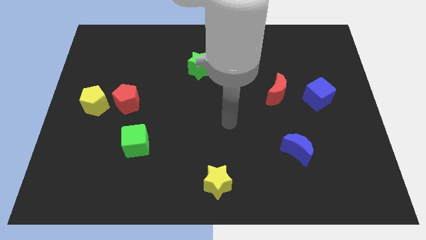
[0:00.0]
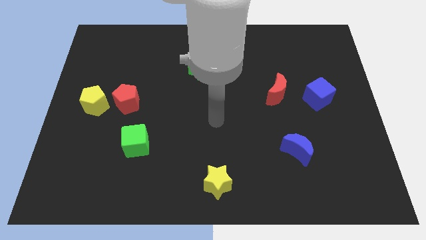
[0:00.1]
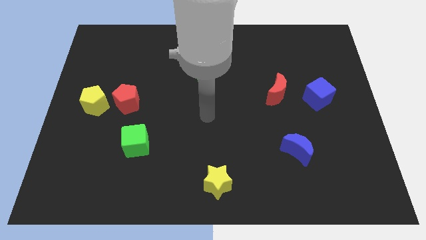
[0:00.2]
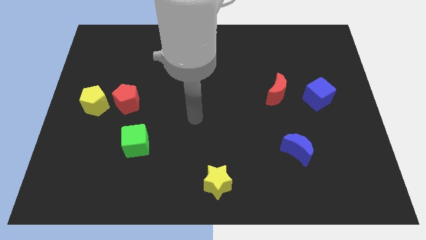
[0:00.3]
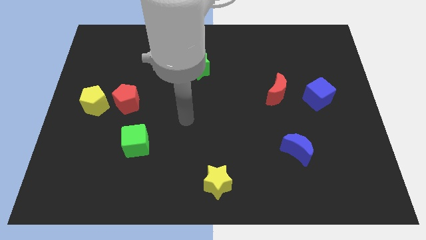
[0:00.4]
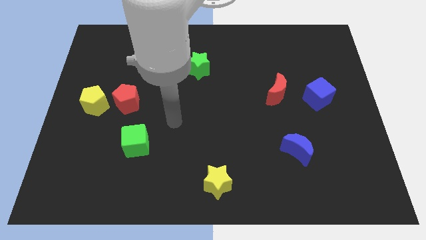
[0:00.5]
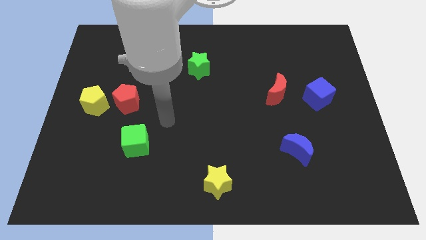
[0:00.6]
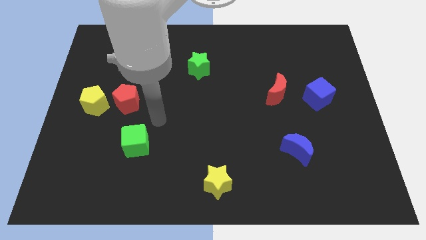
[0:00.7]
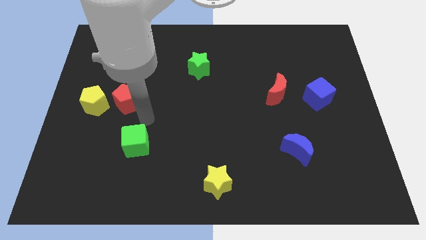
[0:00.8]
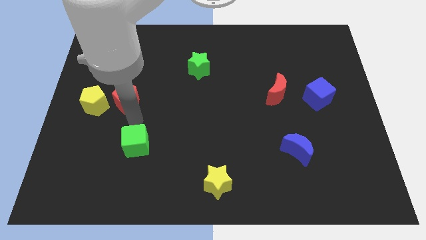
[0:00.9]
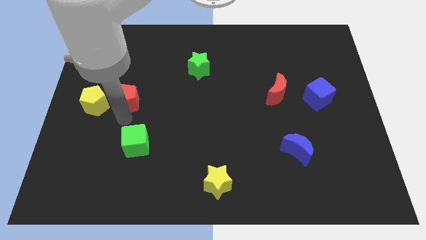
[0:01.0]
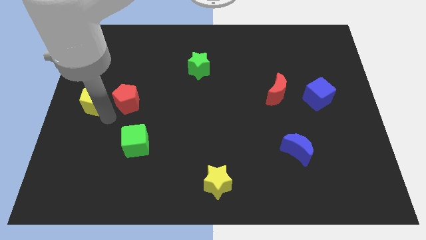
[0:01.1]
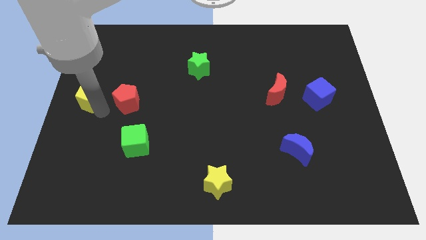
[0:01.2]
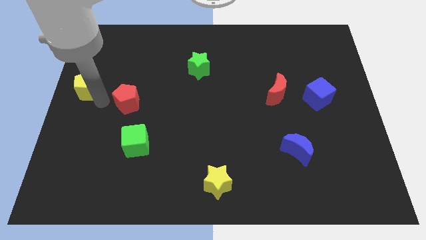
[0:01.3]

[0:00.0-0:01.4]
pull the red pentagon apart from the yellow pentagon

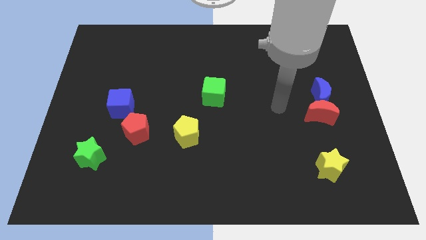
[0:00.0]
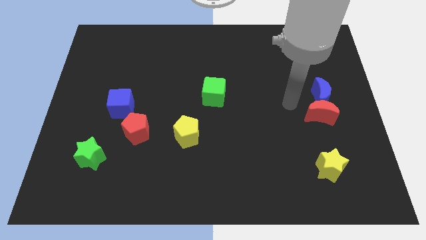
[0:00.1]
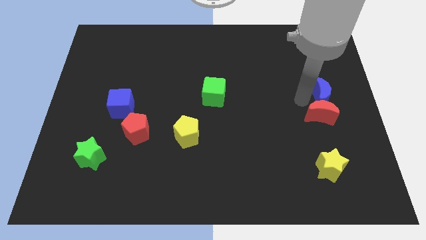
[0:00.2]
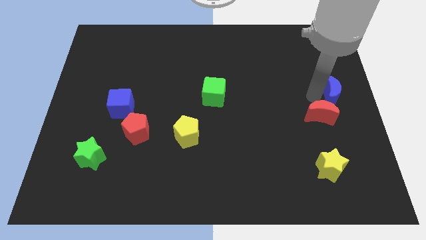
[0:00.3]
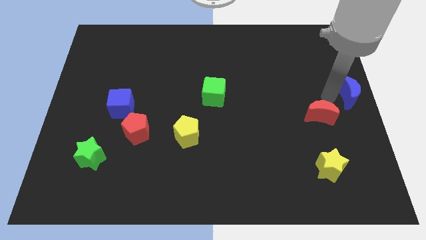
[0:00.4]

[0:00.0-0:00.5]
move the red moon away from the blue moon

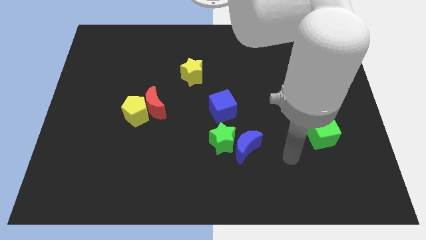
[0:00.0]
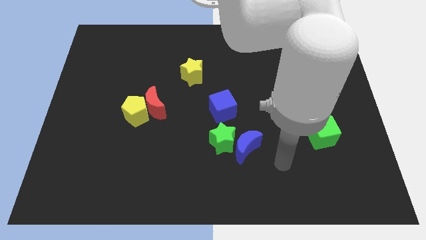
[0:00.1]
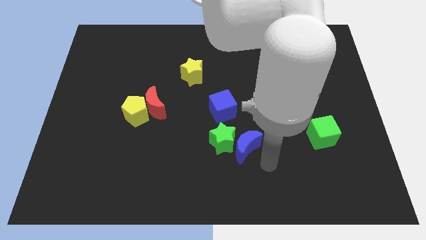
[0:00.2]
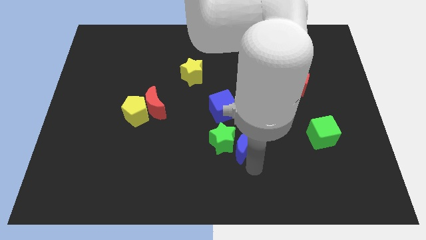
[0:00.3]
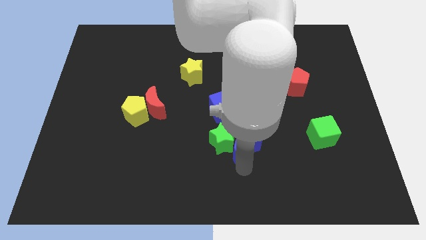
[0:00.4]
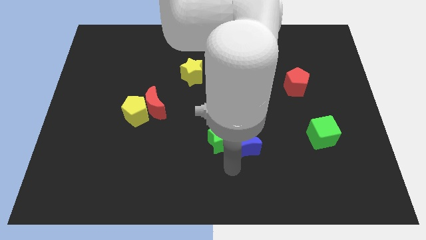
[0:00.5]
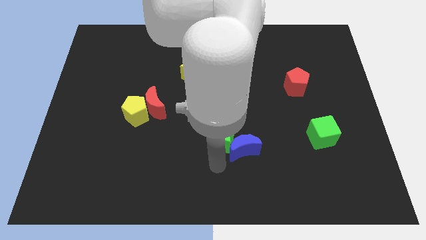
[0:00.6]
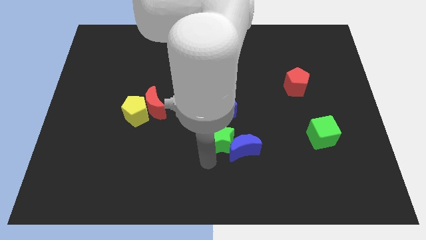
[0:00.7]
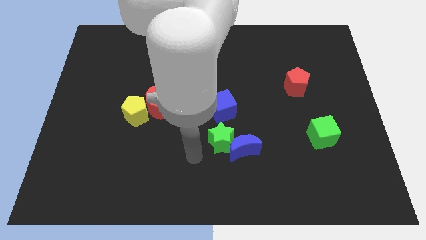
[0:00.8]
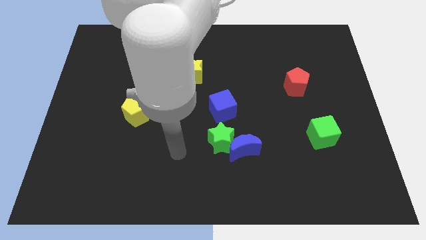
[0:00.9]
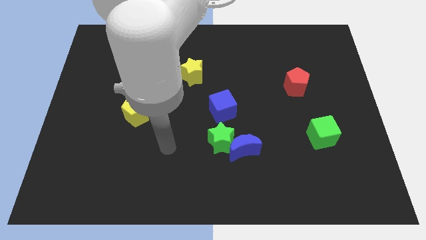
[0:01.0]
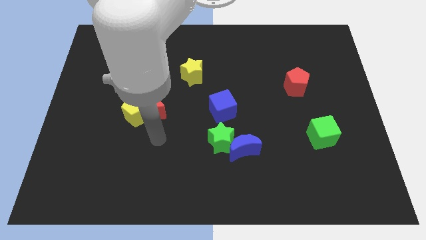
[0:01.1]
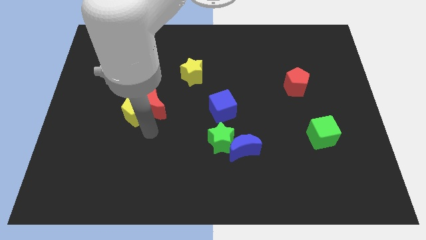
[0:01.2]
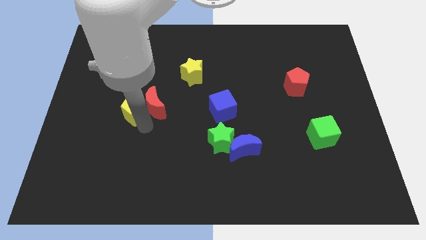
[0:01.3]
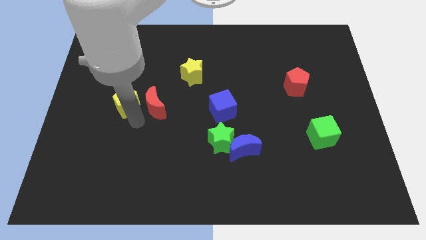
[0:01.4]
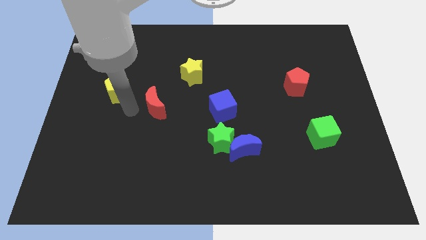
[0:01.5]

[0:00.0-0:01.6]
separate the red moon from the yellow pentagon

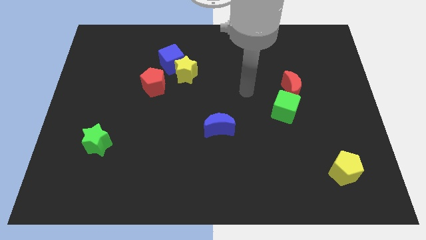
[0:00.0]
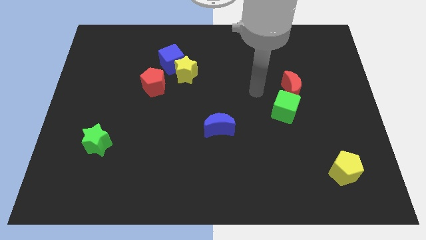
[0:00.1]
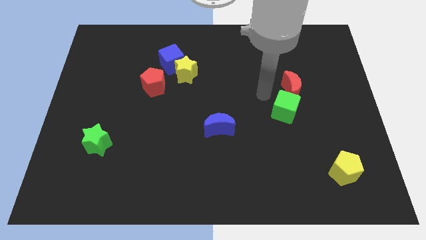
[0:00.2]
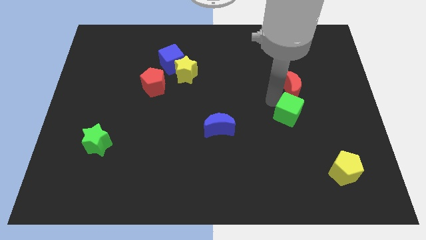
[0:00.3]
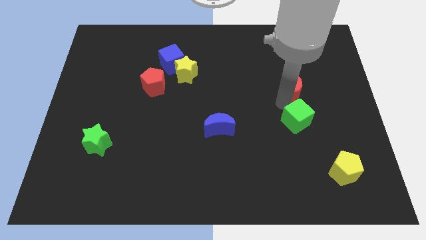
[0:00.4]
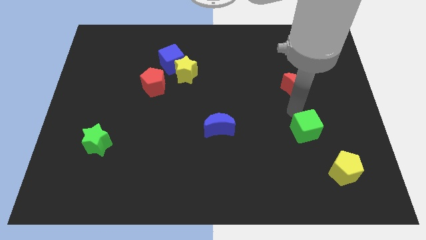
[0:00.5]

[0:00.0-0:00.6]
move the red moon away from the green cube

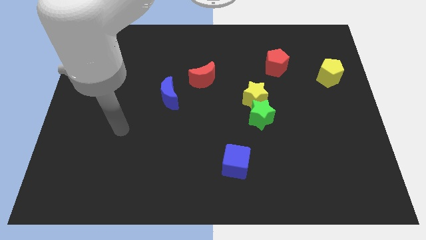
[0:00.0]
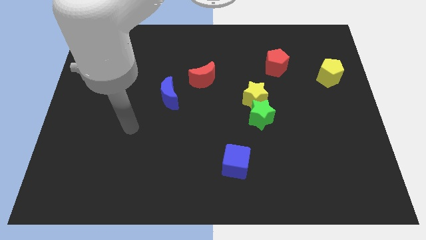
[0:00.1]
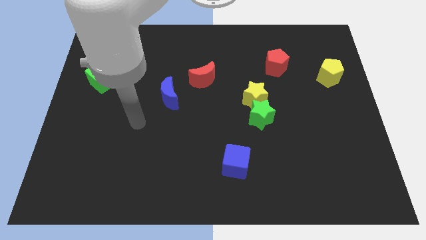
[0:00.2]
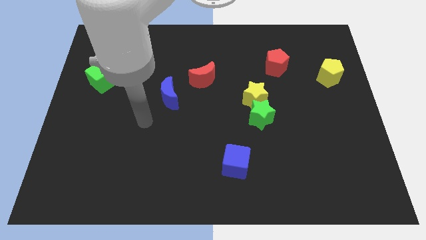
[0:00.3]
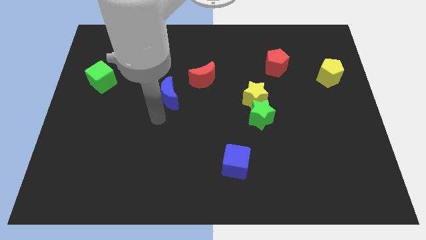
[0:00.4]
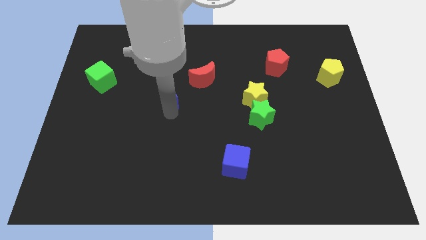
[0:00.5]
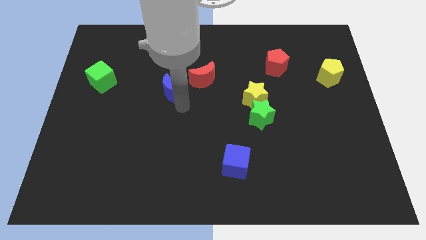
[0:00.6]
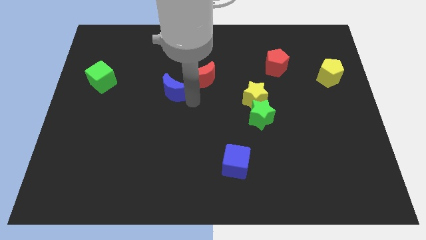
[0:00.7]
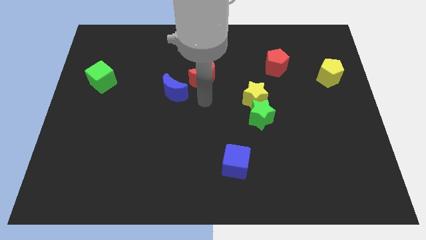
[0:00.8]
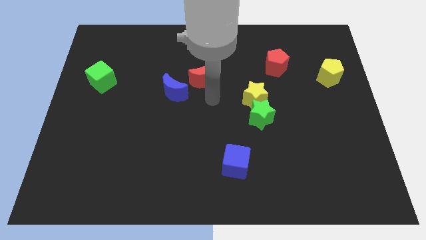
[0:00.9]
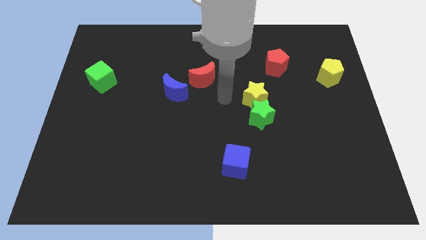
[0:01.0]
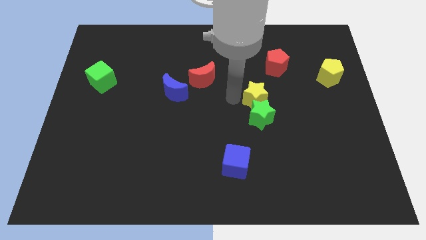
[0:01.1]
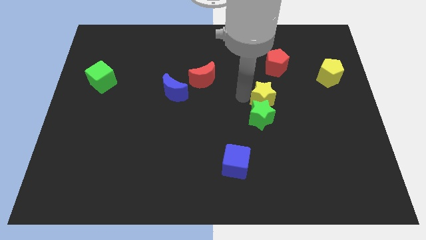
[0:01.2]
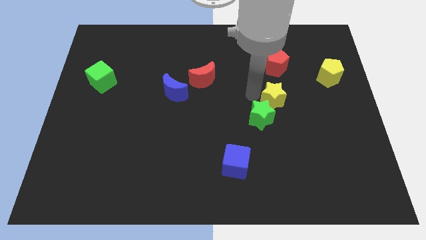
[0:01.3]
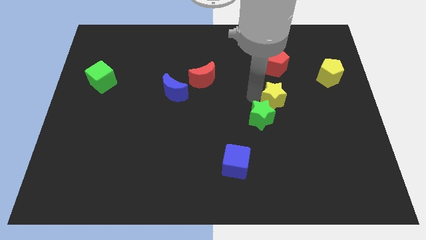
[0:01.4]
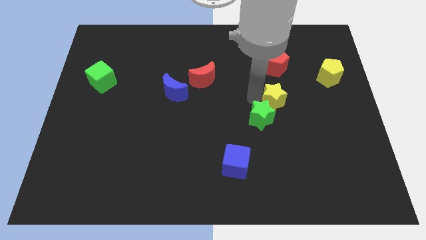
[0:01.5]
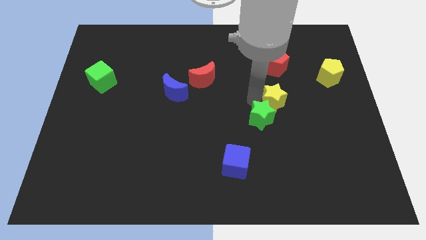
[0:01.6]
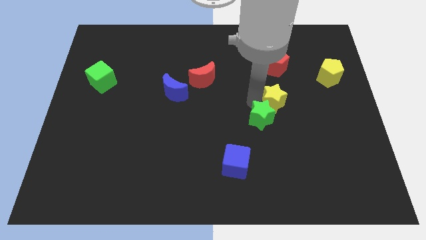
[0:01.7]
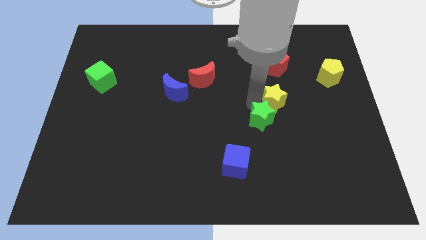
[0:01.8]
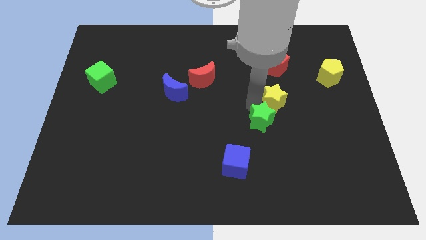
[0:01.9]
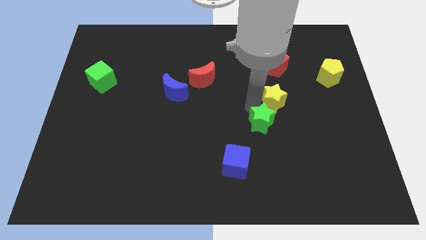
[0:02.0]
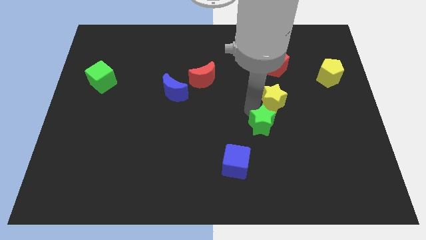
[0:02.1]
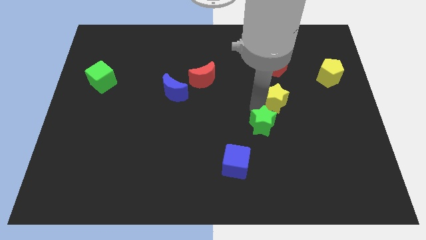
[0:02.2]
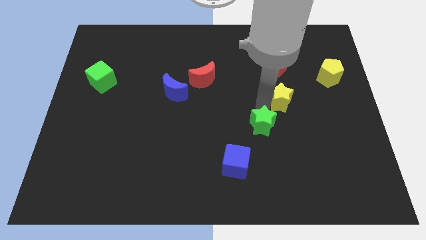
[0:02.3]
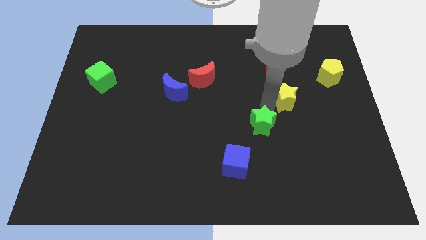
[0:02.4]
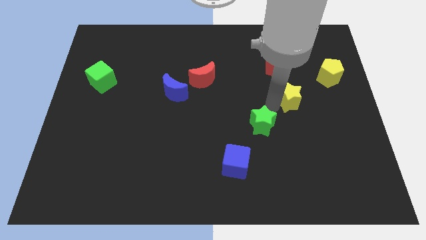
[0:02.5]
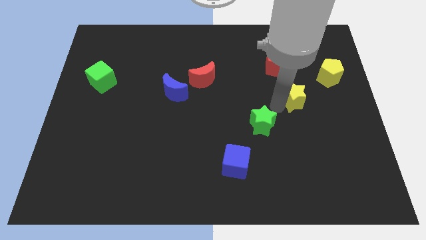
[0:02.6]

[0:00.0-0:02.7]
pull the green star apart from the yellow star

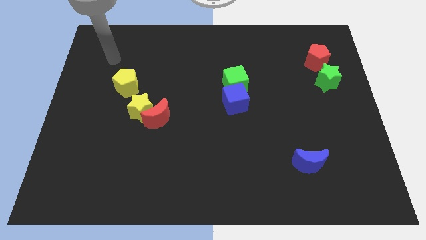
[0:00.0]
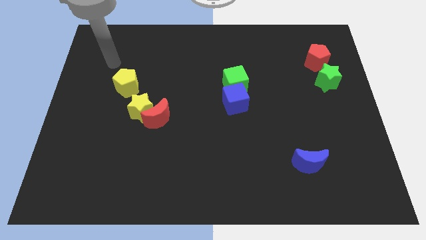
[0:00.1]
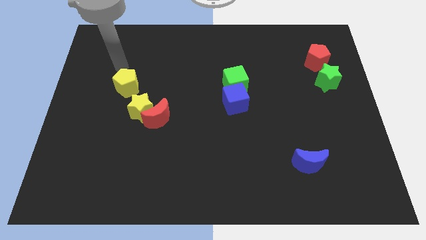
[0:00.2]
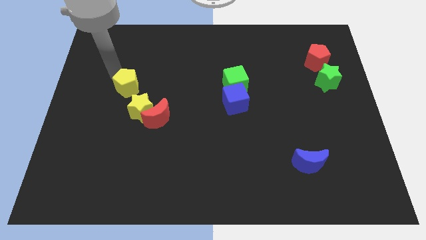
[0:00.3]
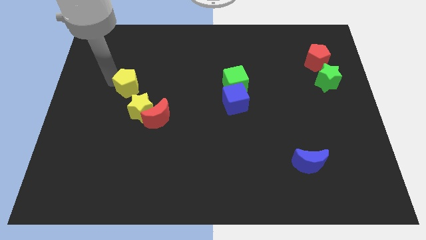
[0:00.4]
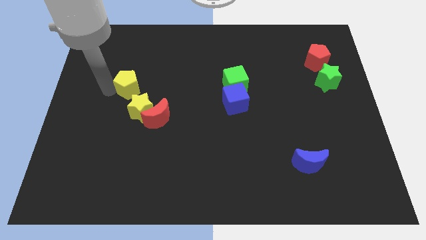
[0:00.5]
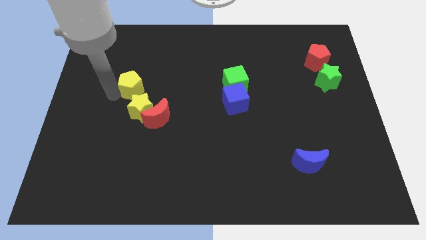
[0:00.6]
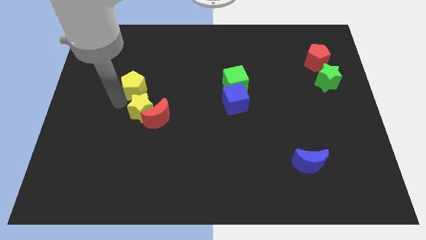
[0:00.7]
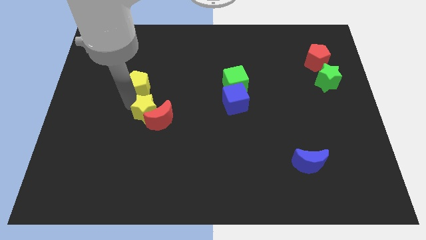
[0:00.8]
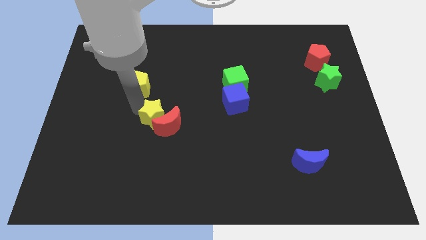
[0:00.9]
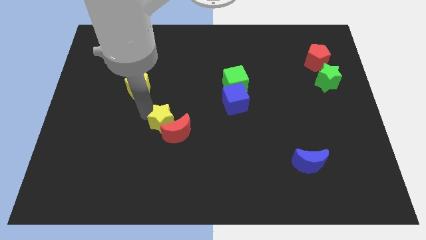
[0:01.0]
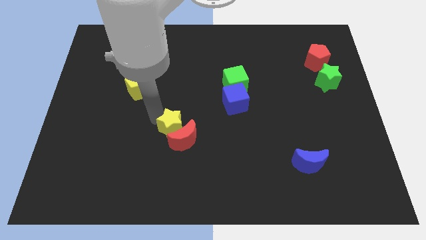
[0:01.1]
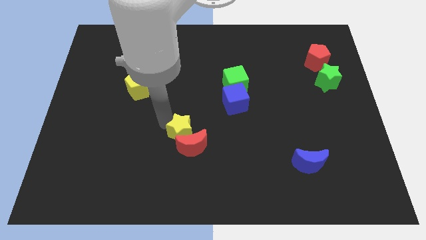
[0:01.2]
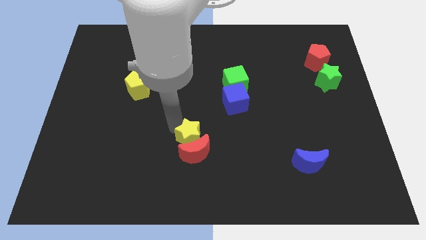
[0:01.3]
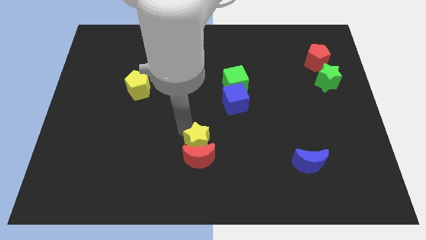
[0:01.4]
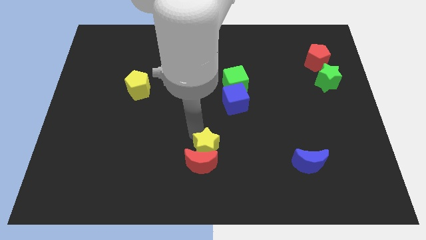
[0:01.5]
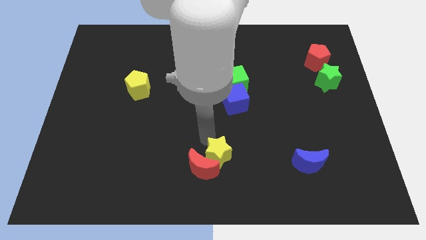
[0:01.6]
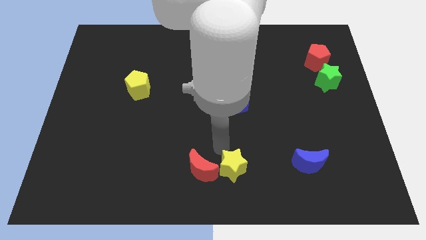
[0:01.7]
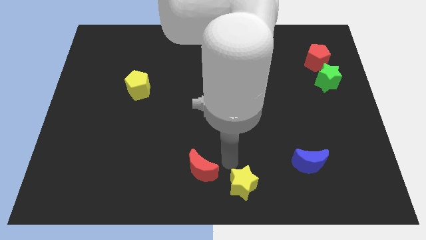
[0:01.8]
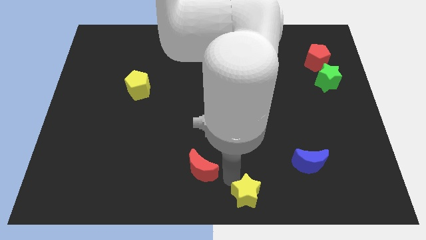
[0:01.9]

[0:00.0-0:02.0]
pull the red moon apart from the yellow star

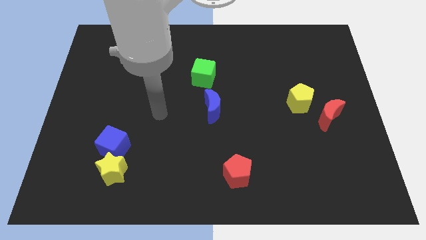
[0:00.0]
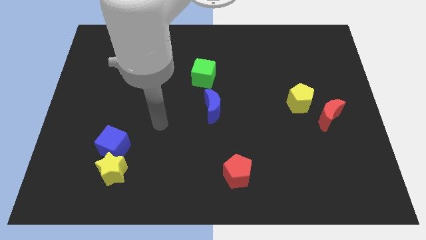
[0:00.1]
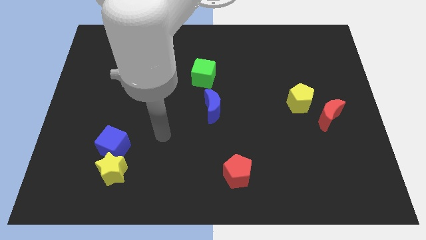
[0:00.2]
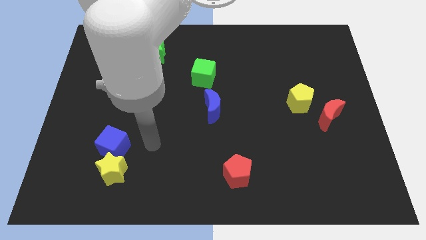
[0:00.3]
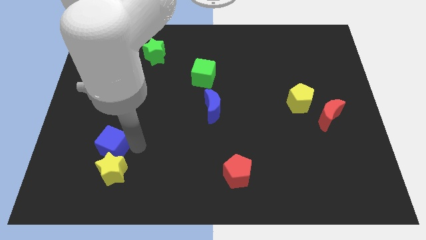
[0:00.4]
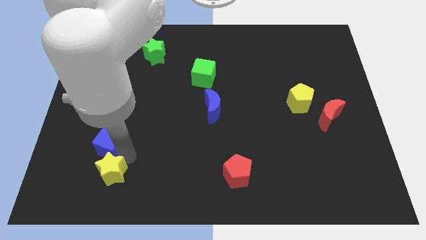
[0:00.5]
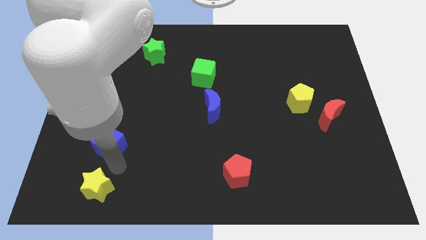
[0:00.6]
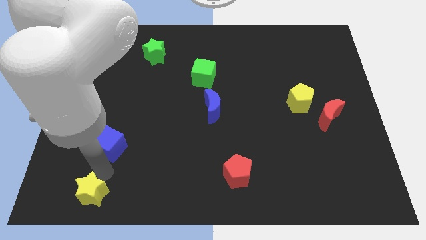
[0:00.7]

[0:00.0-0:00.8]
pull the blue cube apart from the yellow star
